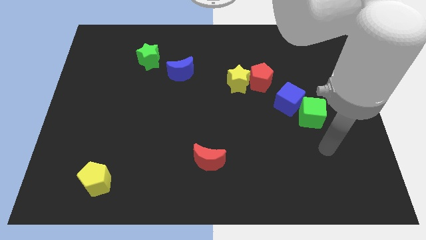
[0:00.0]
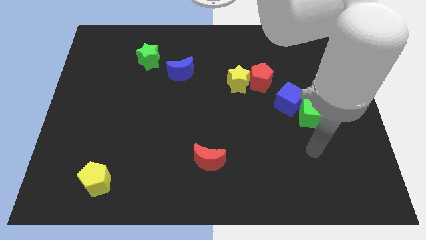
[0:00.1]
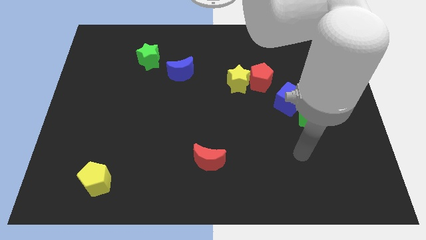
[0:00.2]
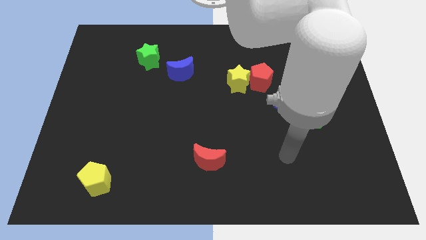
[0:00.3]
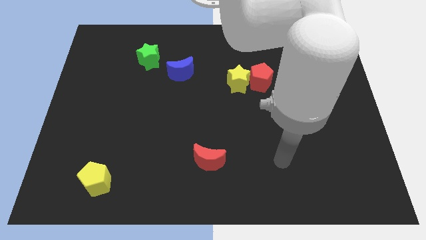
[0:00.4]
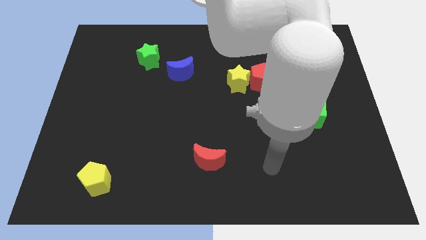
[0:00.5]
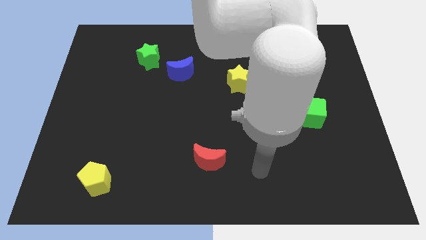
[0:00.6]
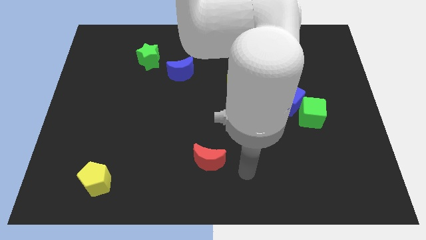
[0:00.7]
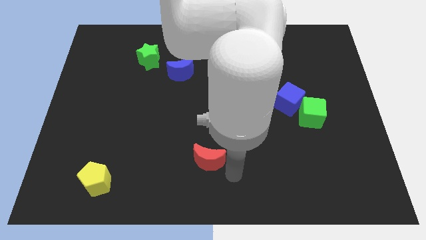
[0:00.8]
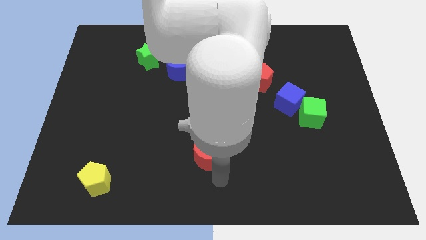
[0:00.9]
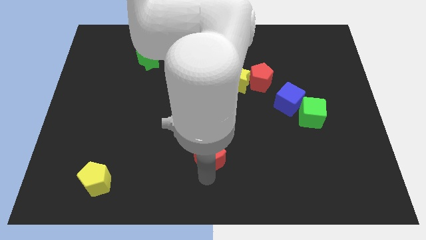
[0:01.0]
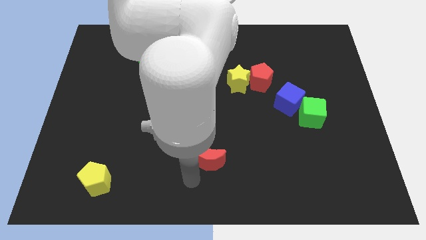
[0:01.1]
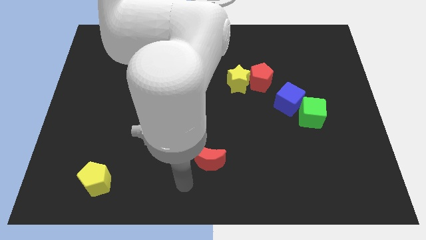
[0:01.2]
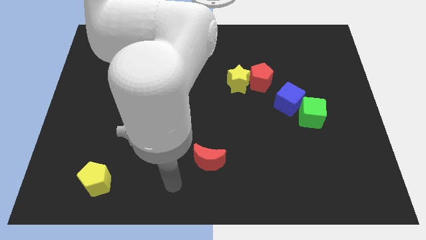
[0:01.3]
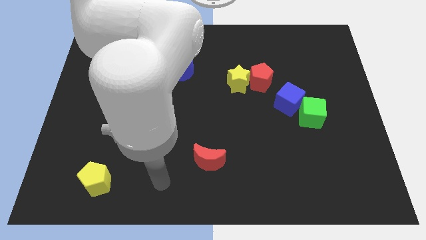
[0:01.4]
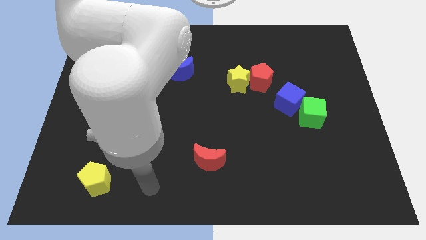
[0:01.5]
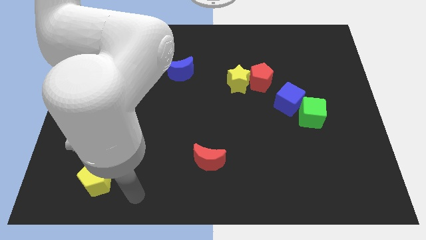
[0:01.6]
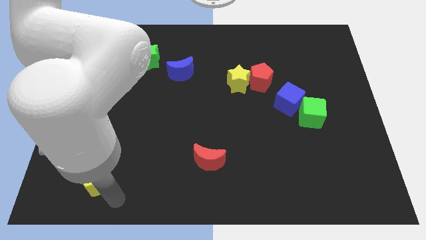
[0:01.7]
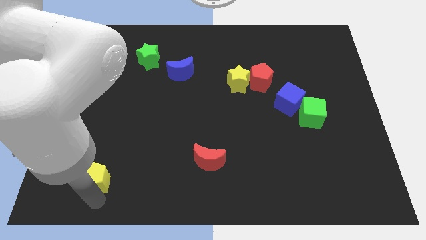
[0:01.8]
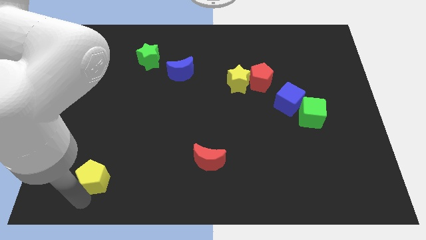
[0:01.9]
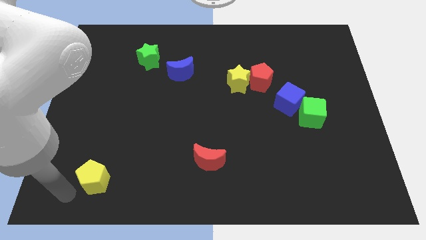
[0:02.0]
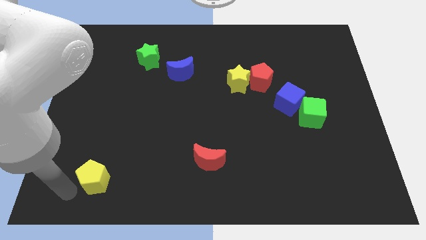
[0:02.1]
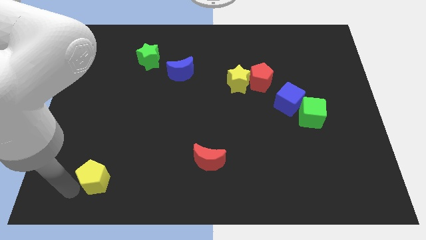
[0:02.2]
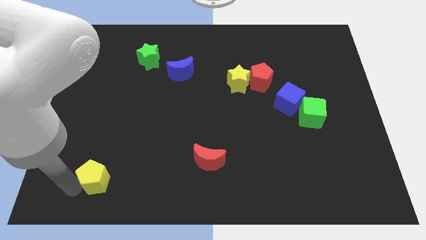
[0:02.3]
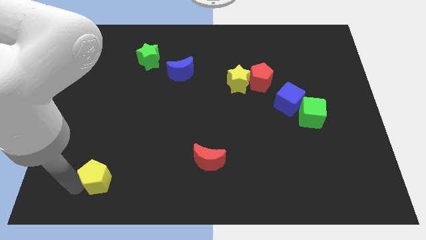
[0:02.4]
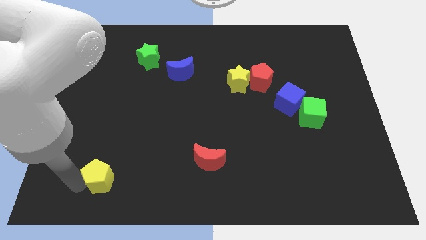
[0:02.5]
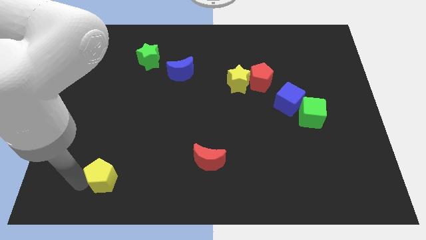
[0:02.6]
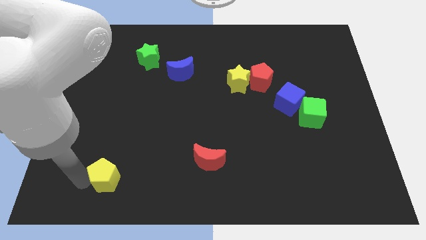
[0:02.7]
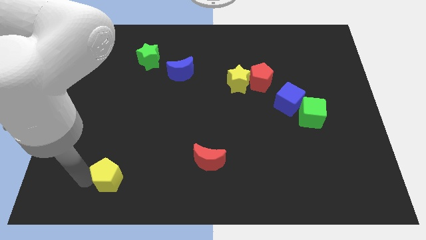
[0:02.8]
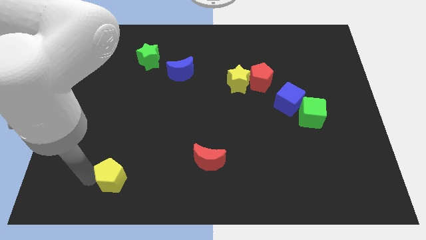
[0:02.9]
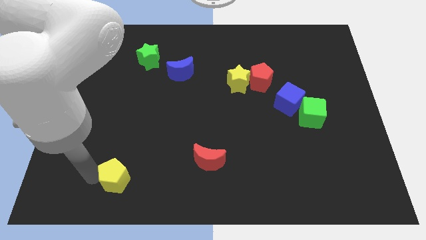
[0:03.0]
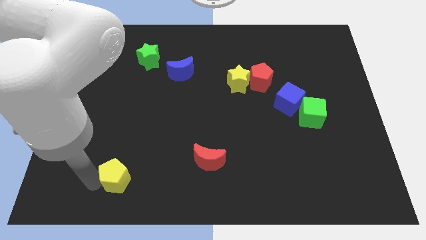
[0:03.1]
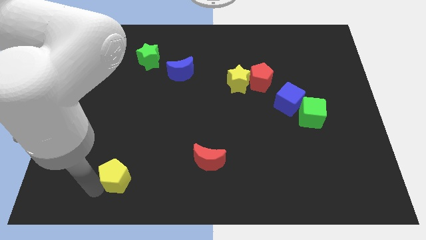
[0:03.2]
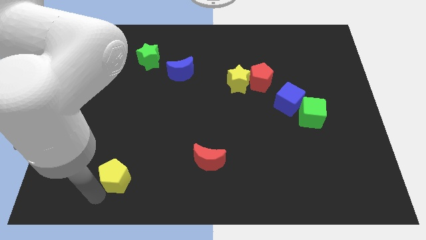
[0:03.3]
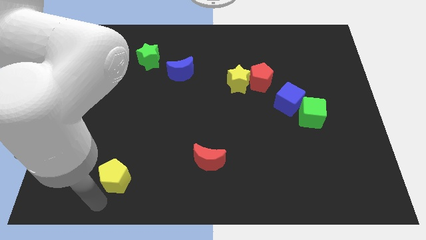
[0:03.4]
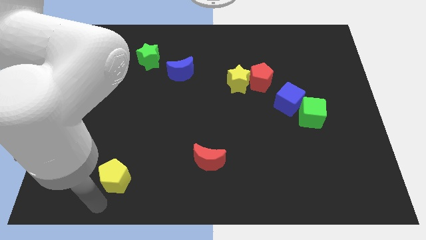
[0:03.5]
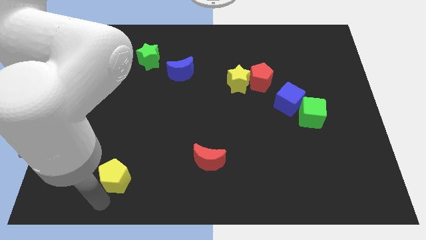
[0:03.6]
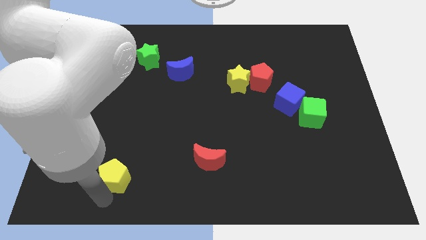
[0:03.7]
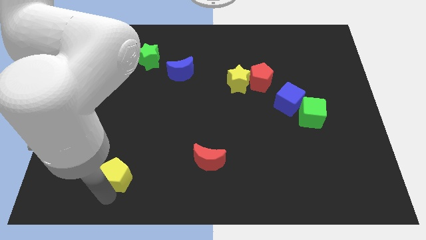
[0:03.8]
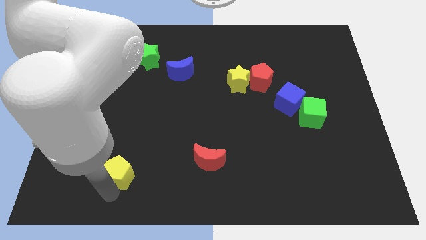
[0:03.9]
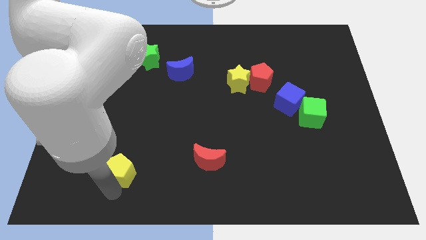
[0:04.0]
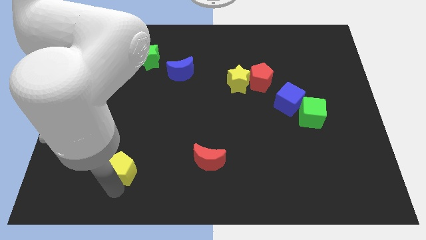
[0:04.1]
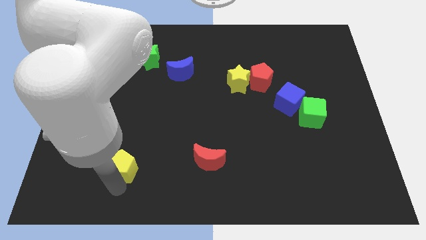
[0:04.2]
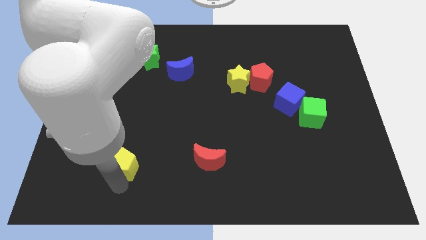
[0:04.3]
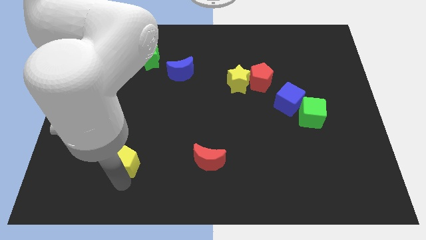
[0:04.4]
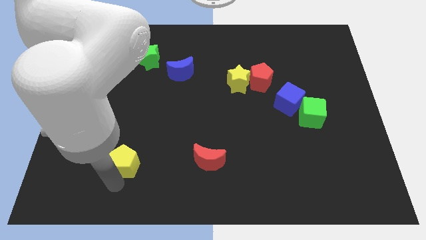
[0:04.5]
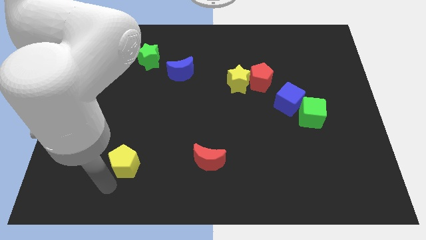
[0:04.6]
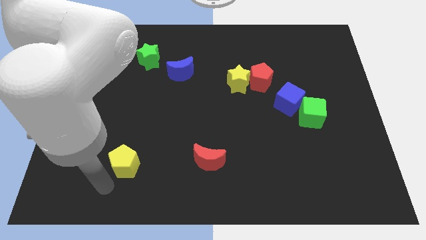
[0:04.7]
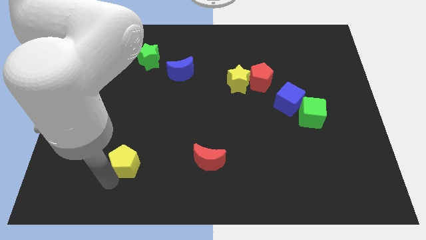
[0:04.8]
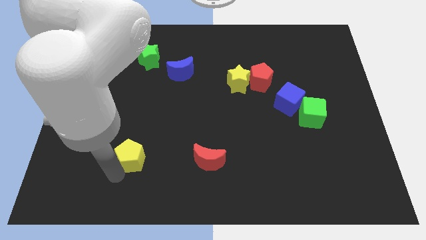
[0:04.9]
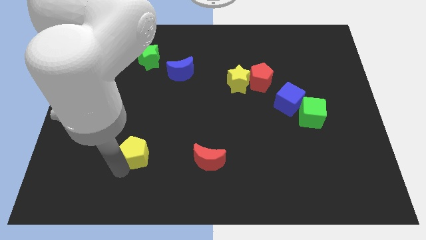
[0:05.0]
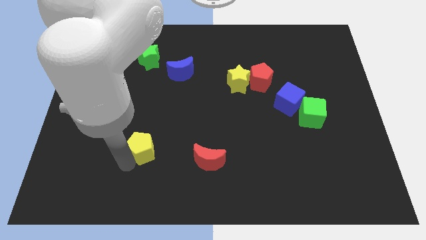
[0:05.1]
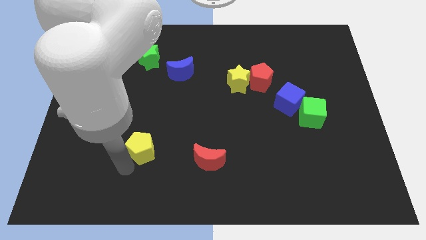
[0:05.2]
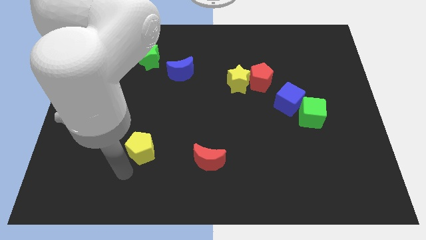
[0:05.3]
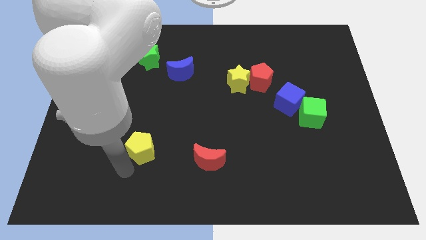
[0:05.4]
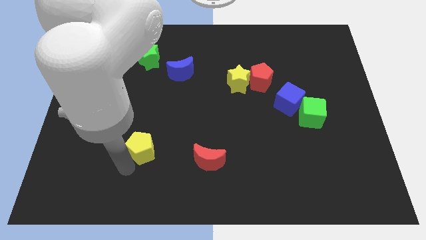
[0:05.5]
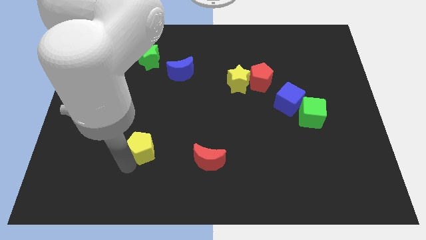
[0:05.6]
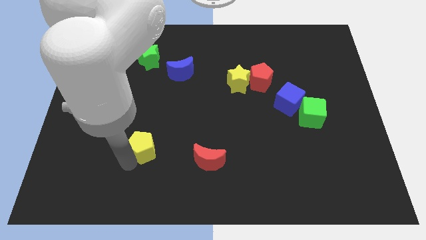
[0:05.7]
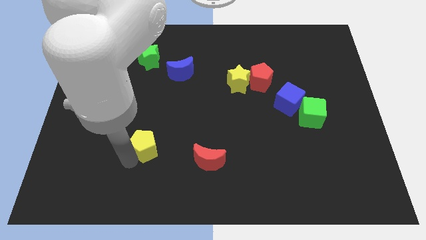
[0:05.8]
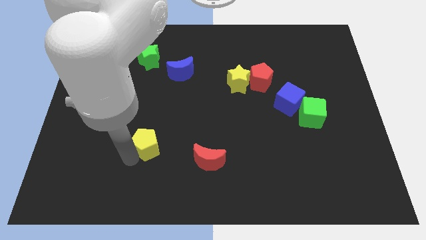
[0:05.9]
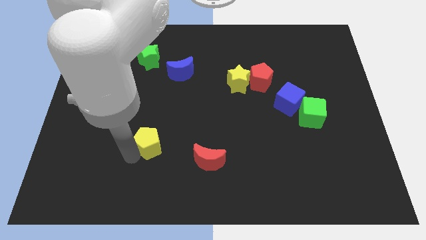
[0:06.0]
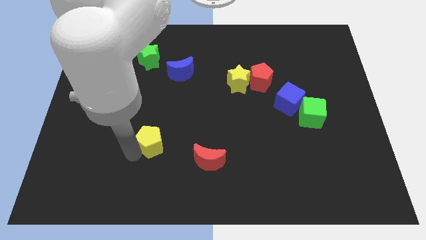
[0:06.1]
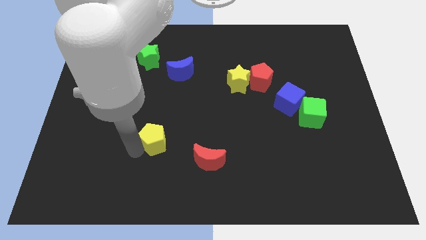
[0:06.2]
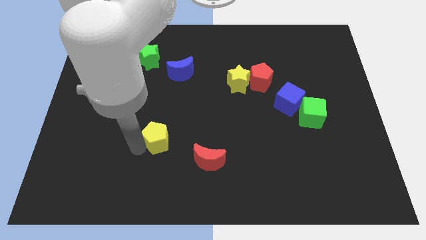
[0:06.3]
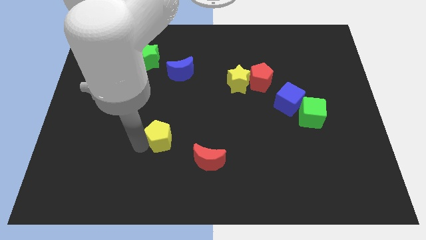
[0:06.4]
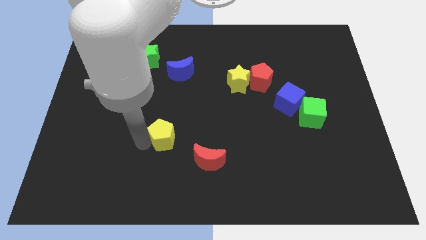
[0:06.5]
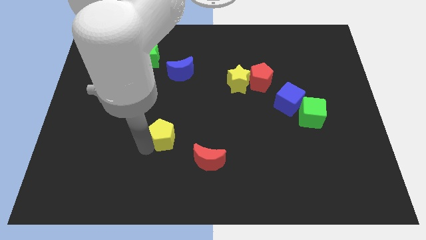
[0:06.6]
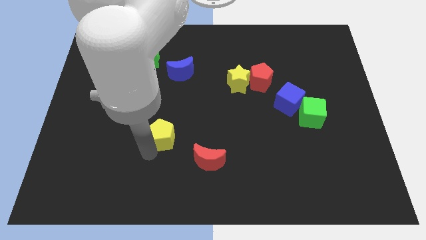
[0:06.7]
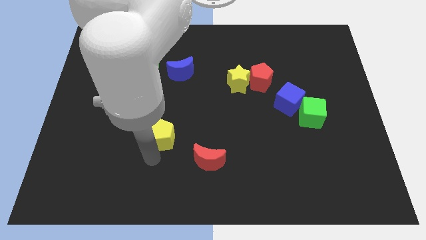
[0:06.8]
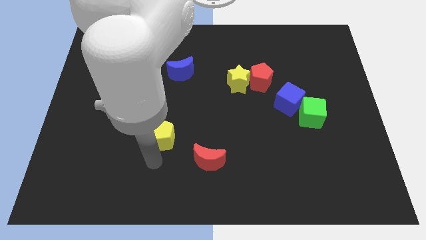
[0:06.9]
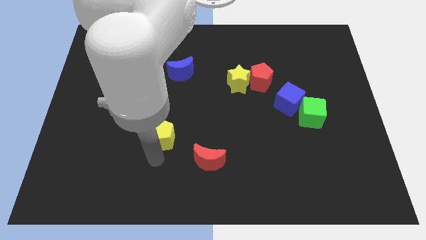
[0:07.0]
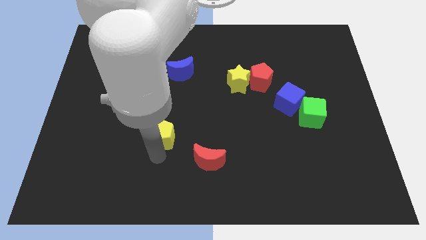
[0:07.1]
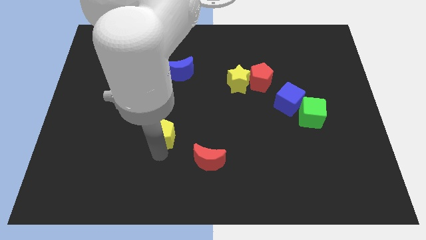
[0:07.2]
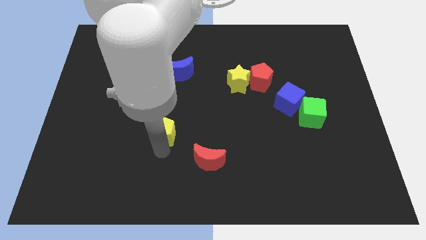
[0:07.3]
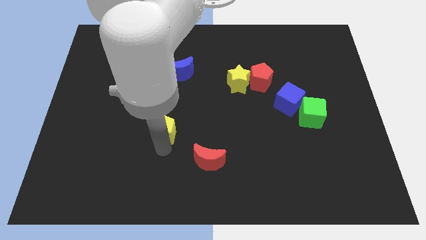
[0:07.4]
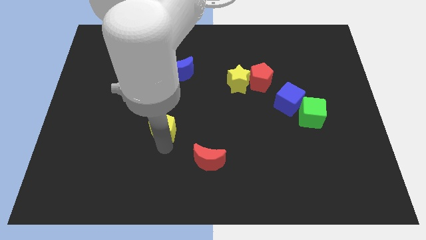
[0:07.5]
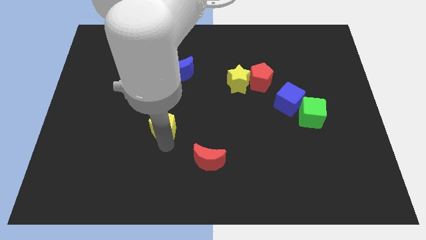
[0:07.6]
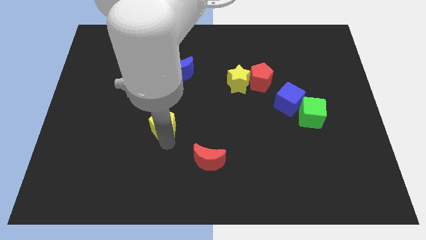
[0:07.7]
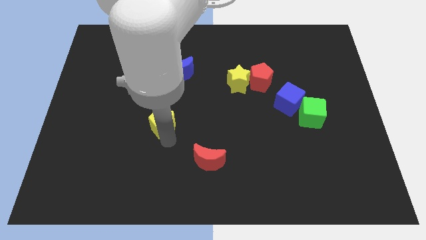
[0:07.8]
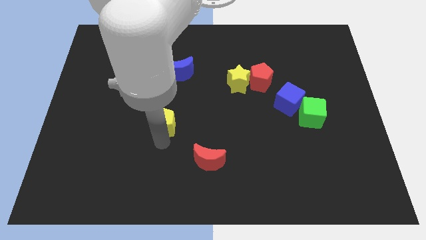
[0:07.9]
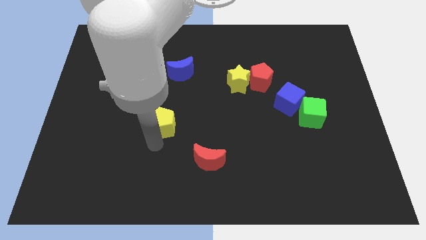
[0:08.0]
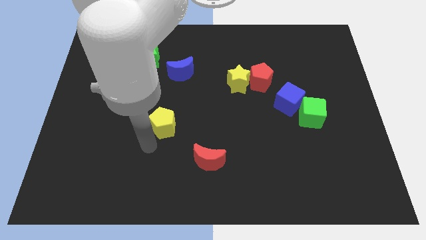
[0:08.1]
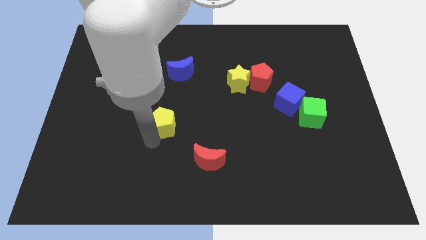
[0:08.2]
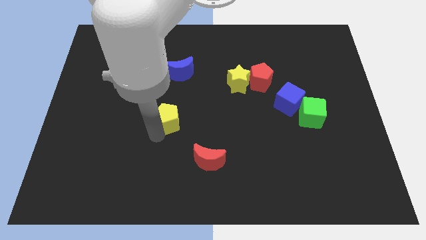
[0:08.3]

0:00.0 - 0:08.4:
put the yellow pentagon to the bottom of the blue moon
